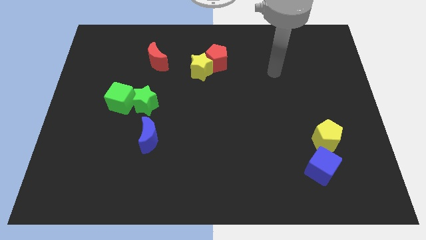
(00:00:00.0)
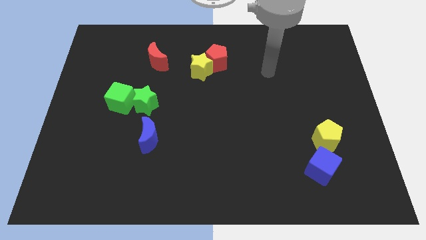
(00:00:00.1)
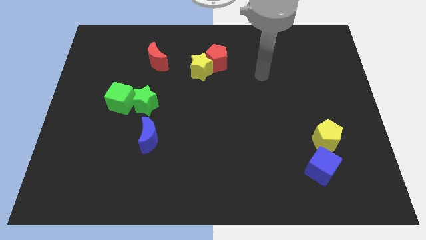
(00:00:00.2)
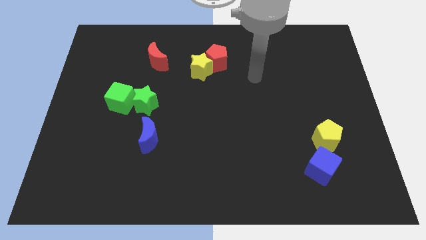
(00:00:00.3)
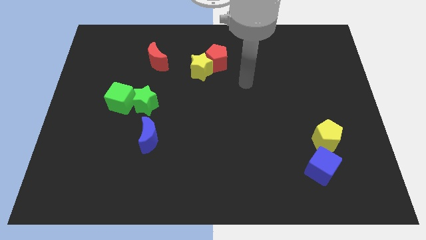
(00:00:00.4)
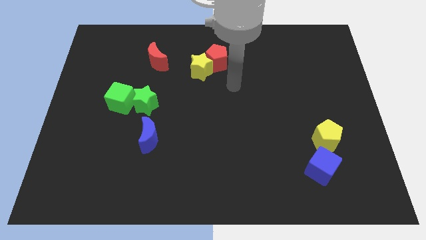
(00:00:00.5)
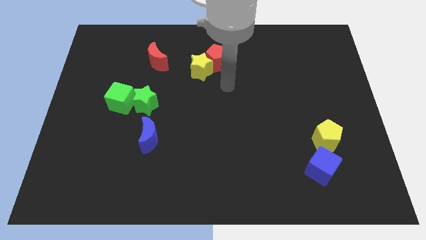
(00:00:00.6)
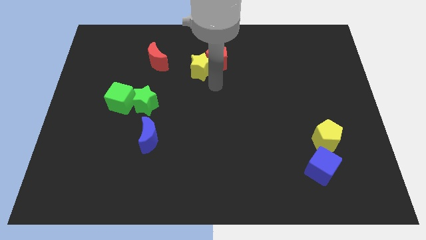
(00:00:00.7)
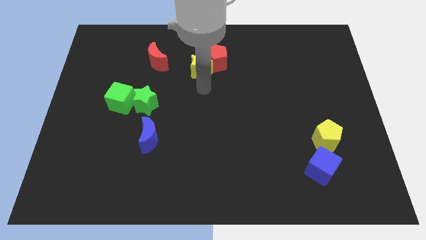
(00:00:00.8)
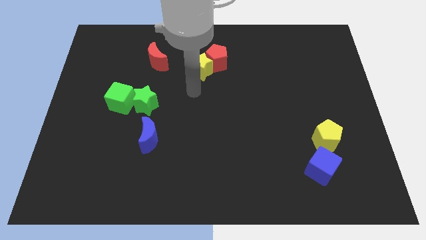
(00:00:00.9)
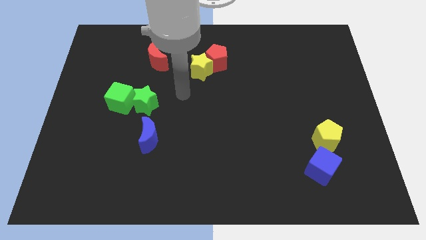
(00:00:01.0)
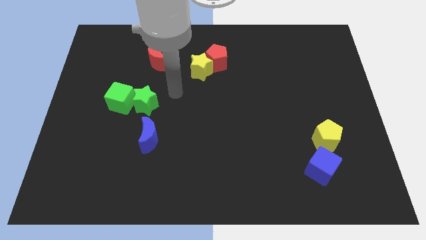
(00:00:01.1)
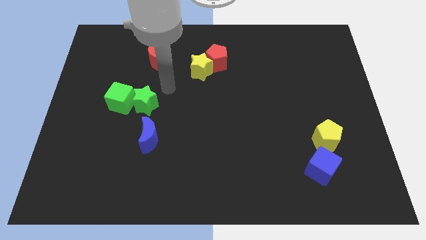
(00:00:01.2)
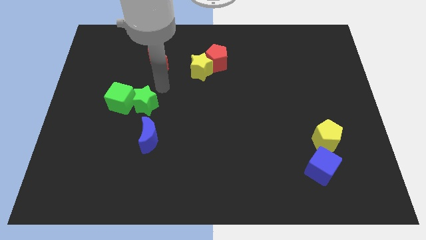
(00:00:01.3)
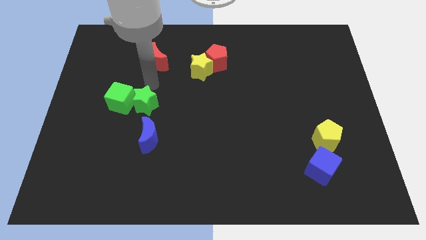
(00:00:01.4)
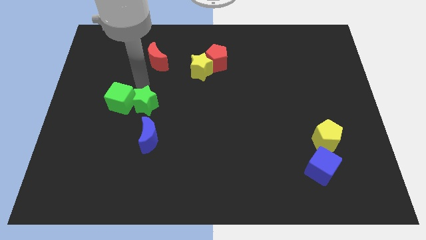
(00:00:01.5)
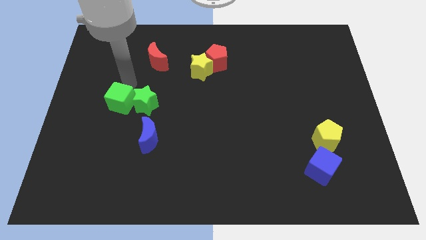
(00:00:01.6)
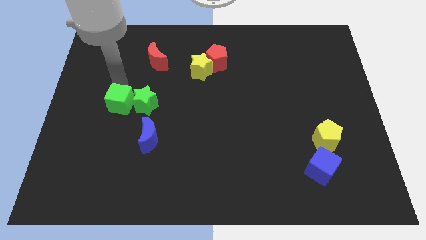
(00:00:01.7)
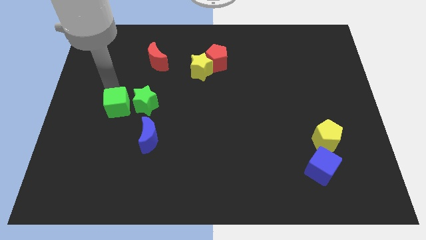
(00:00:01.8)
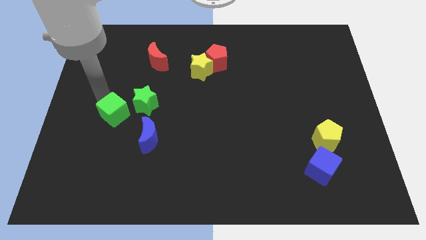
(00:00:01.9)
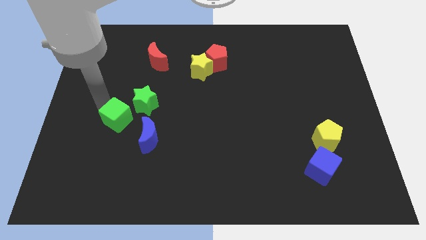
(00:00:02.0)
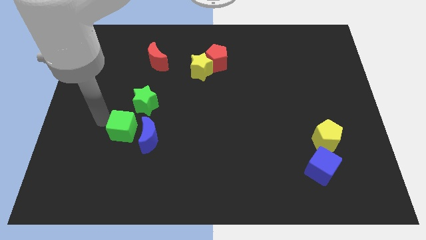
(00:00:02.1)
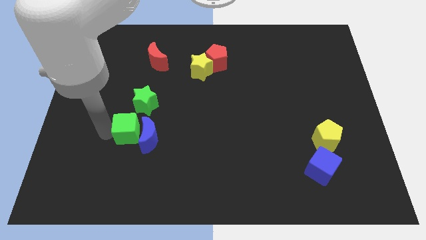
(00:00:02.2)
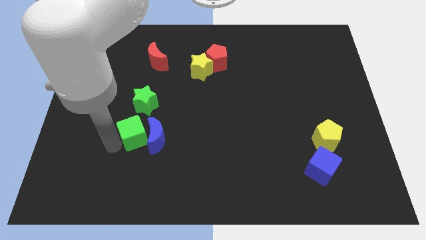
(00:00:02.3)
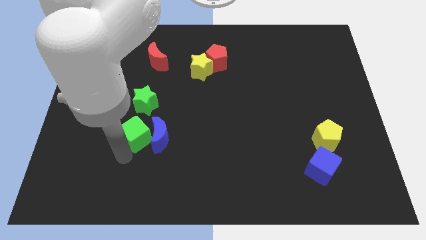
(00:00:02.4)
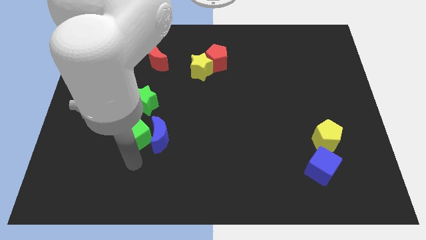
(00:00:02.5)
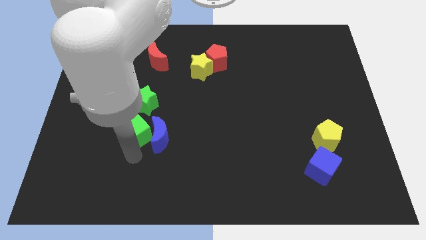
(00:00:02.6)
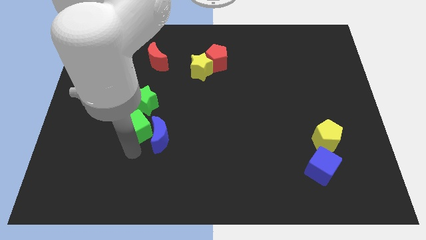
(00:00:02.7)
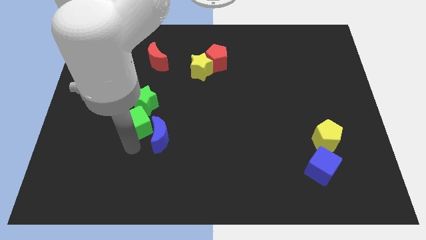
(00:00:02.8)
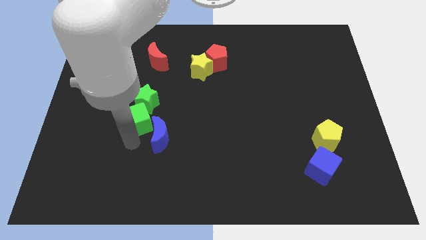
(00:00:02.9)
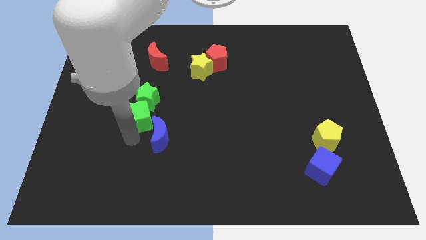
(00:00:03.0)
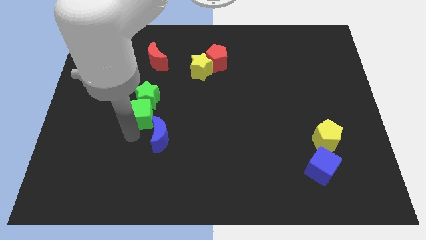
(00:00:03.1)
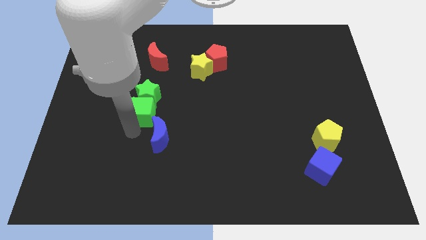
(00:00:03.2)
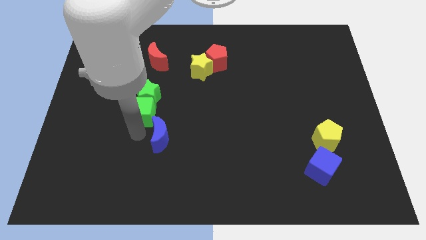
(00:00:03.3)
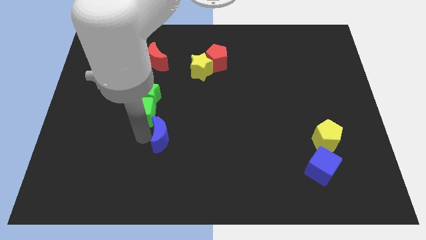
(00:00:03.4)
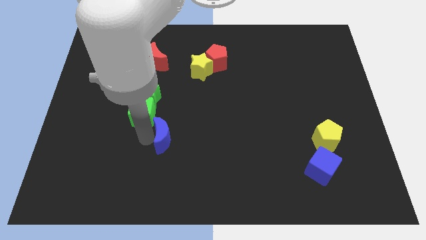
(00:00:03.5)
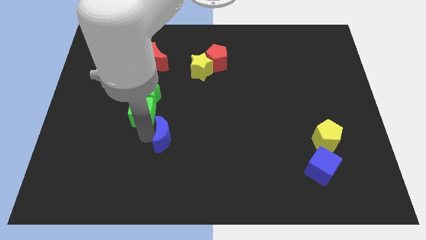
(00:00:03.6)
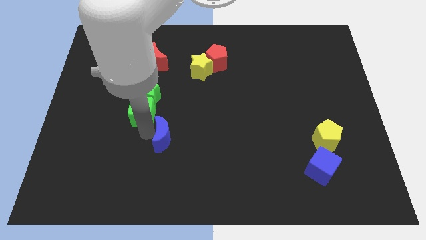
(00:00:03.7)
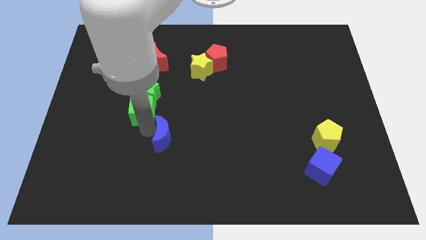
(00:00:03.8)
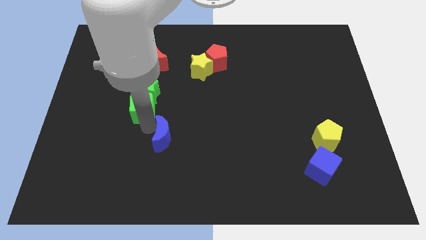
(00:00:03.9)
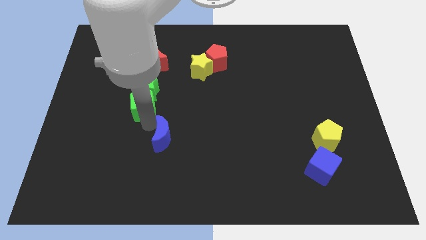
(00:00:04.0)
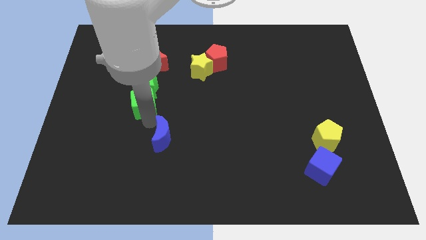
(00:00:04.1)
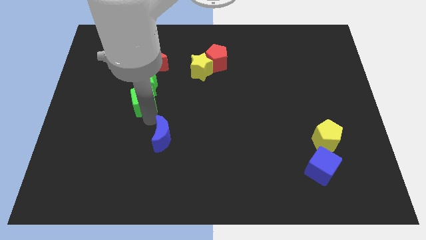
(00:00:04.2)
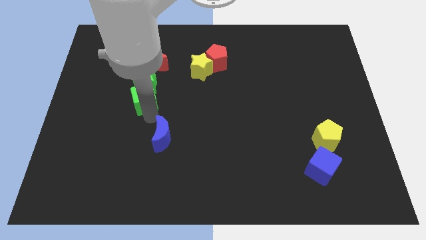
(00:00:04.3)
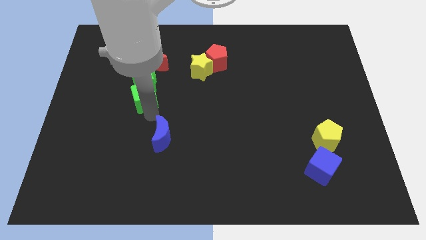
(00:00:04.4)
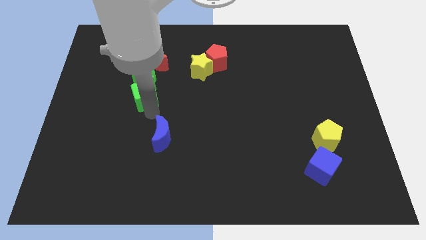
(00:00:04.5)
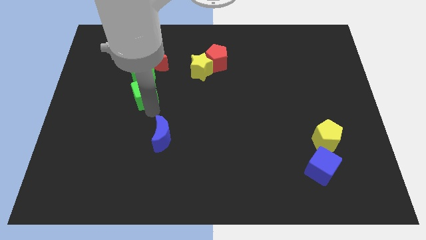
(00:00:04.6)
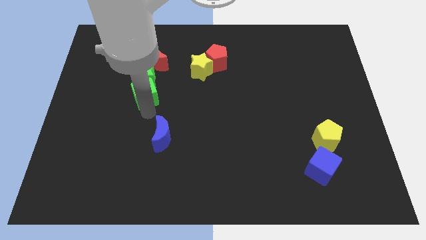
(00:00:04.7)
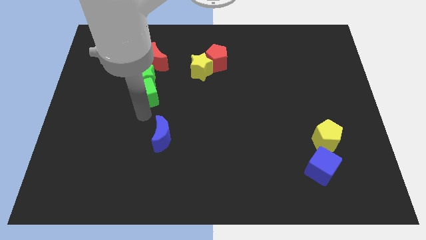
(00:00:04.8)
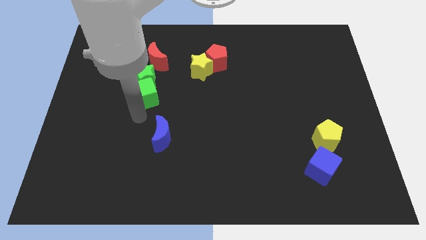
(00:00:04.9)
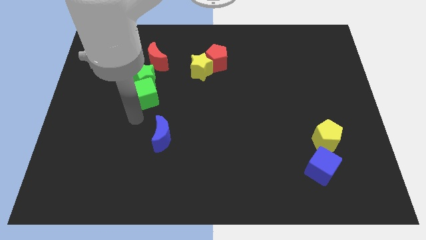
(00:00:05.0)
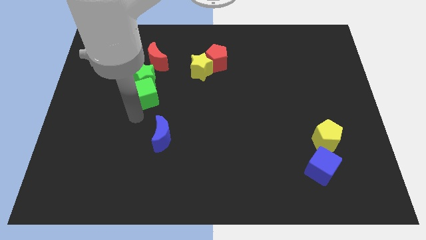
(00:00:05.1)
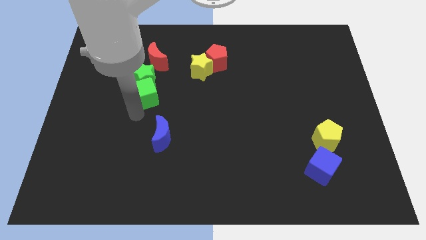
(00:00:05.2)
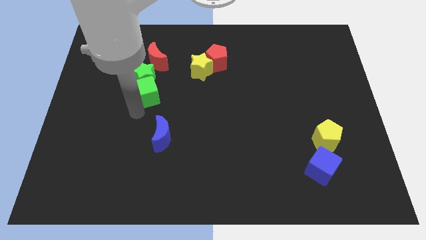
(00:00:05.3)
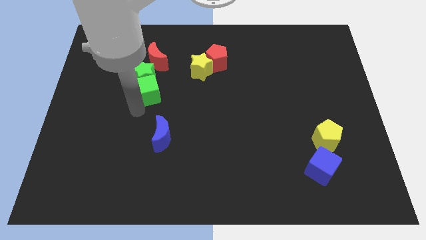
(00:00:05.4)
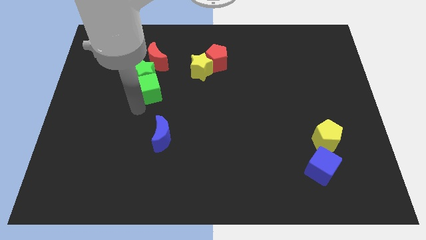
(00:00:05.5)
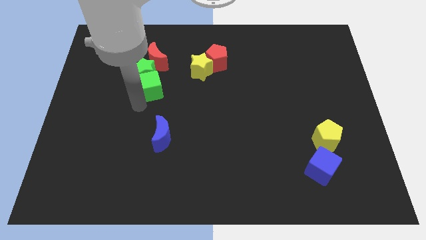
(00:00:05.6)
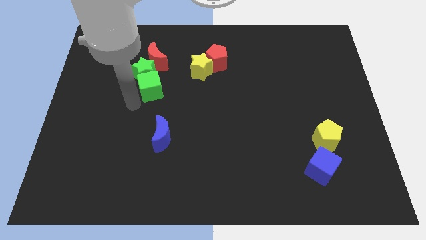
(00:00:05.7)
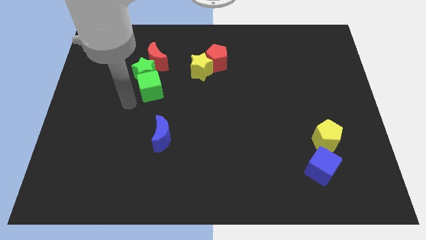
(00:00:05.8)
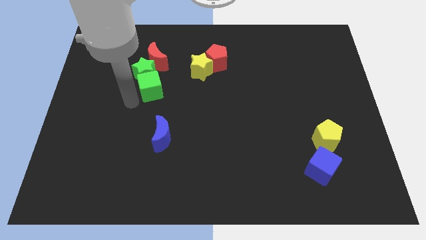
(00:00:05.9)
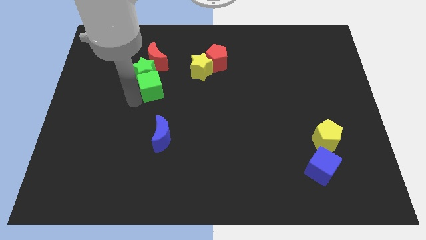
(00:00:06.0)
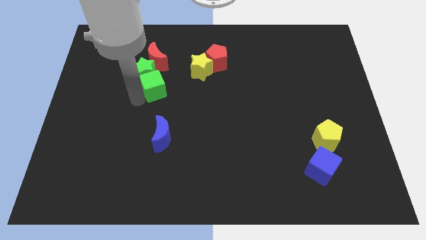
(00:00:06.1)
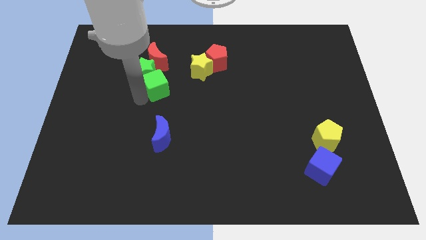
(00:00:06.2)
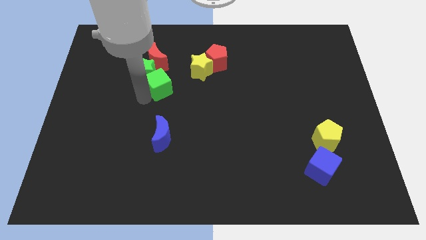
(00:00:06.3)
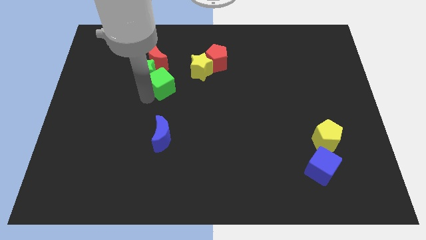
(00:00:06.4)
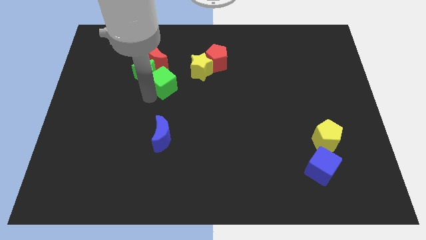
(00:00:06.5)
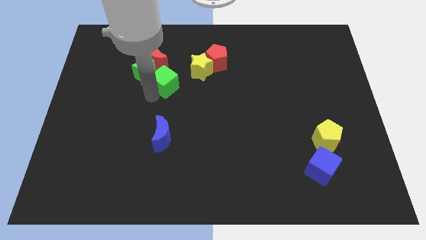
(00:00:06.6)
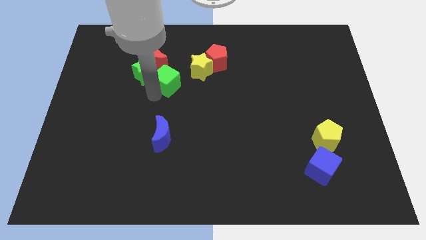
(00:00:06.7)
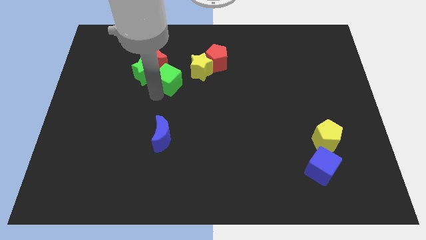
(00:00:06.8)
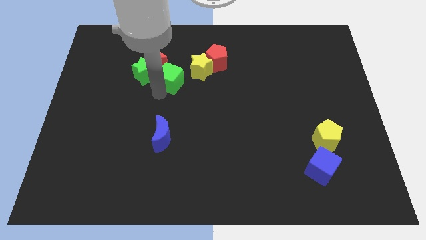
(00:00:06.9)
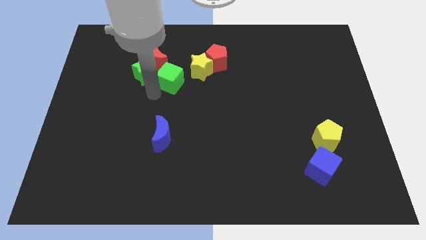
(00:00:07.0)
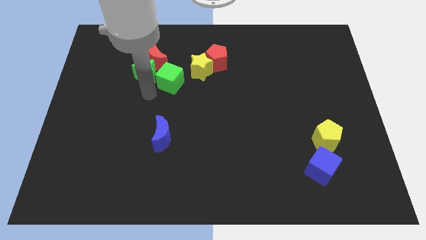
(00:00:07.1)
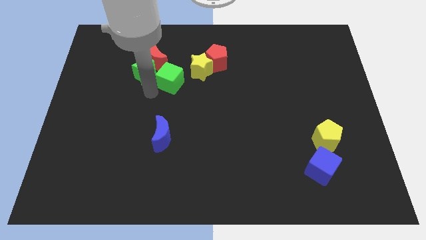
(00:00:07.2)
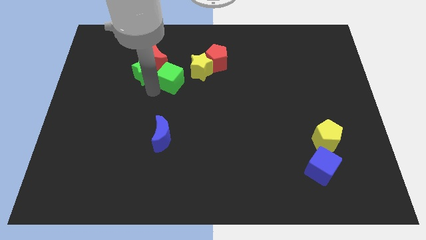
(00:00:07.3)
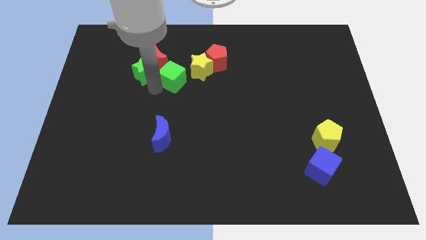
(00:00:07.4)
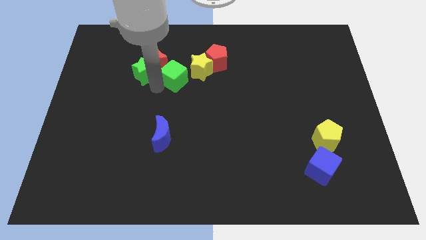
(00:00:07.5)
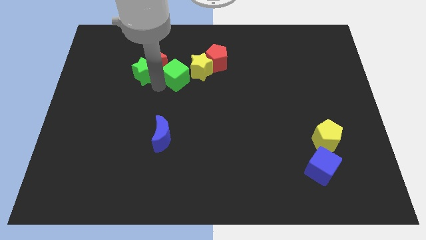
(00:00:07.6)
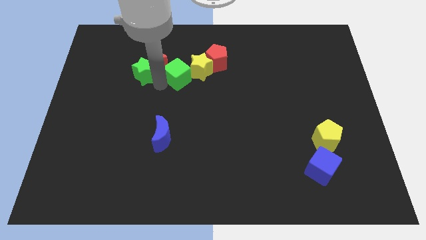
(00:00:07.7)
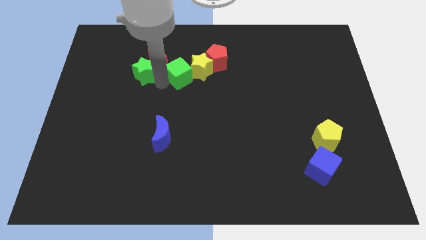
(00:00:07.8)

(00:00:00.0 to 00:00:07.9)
slide the green cube next to the yellow star
